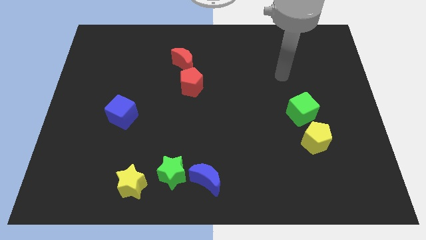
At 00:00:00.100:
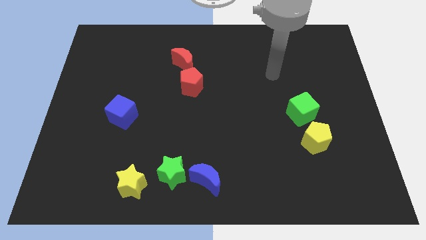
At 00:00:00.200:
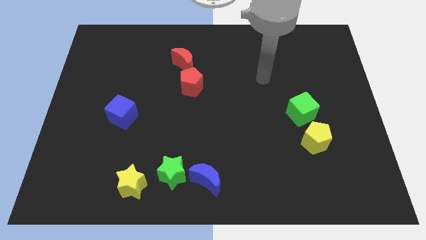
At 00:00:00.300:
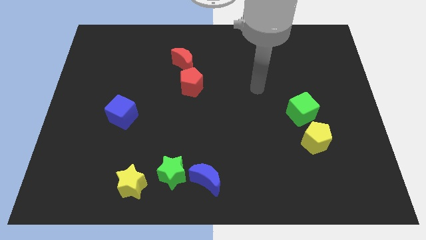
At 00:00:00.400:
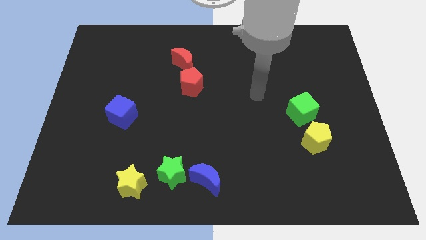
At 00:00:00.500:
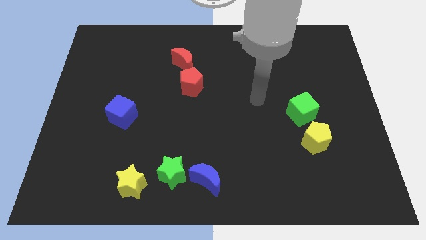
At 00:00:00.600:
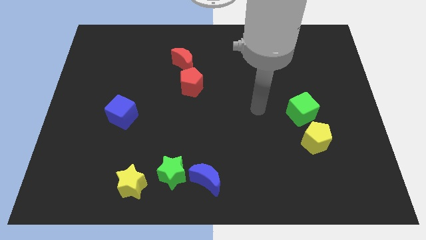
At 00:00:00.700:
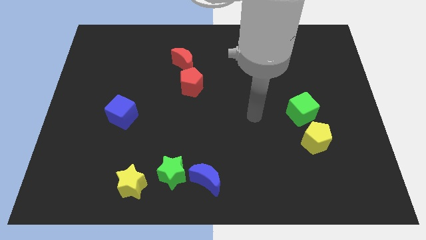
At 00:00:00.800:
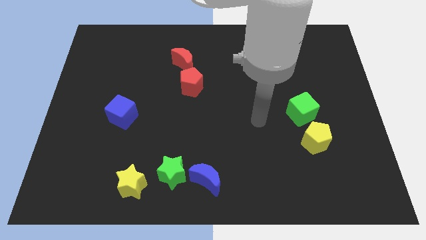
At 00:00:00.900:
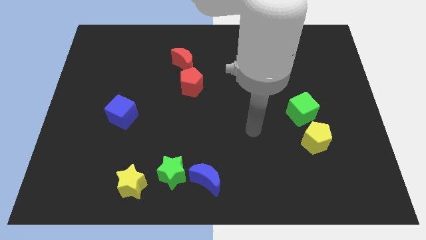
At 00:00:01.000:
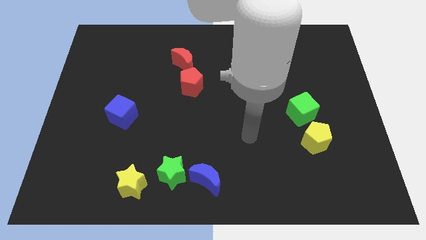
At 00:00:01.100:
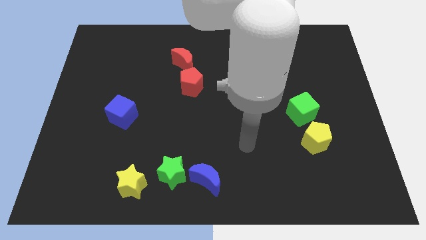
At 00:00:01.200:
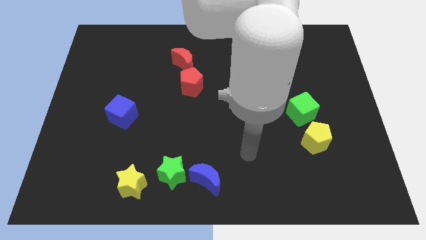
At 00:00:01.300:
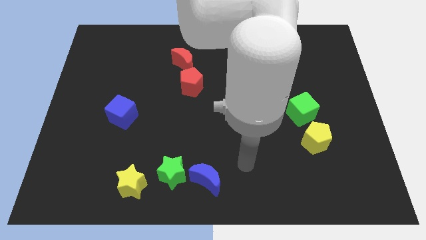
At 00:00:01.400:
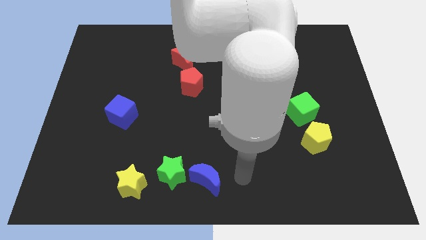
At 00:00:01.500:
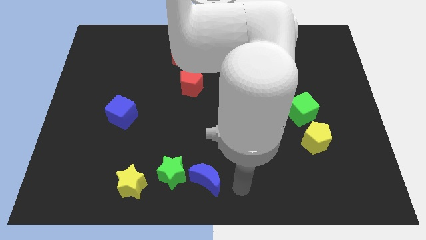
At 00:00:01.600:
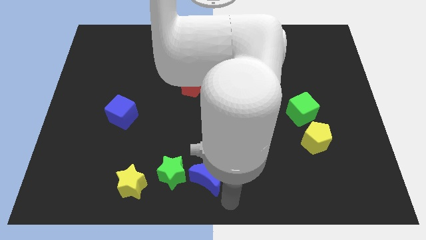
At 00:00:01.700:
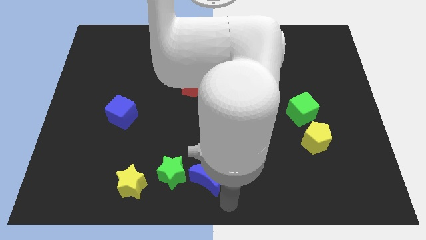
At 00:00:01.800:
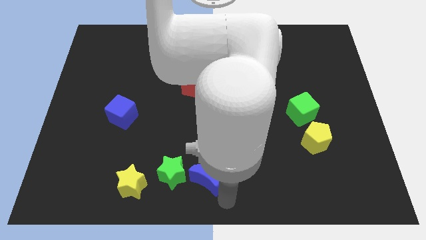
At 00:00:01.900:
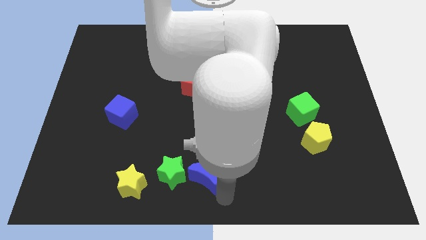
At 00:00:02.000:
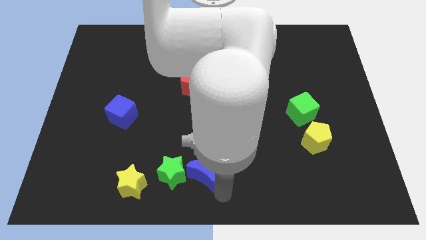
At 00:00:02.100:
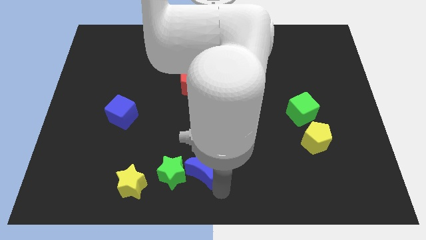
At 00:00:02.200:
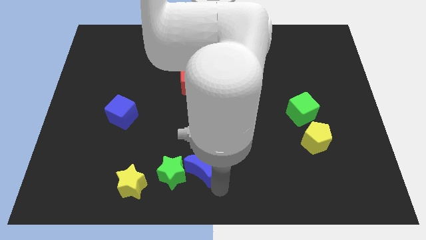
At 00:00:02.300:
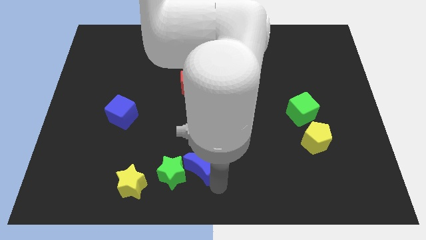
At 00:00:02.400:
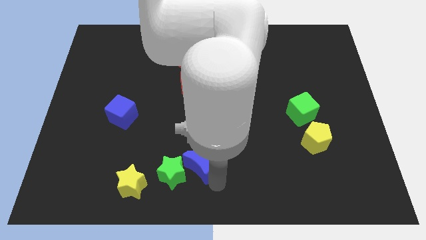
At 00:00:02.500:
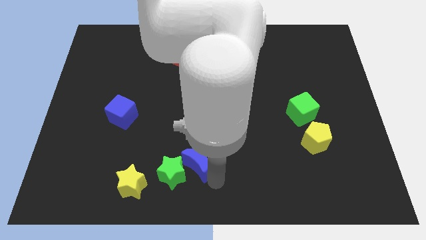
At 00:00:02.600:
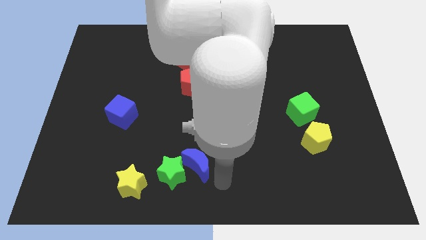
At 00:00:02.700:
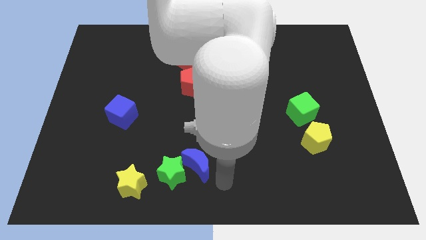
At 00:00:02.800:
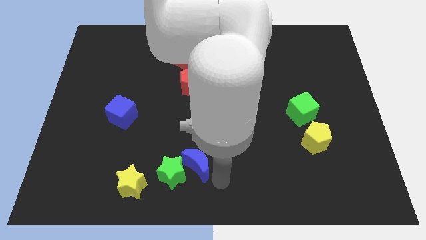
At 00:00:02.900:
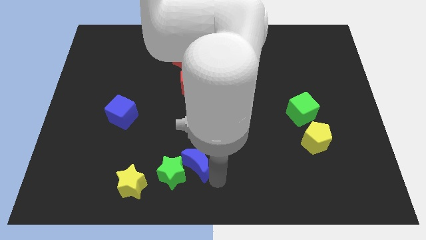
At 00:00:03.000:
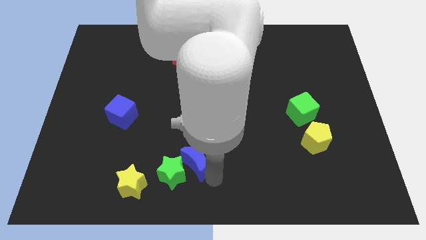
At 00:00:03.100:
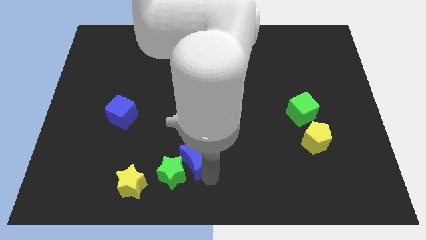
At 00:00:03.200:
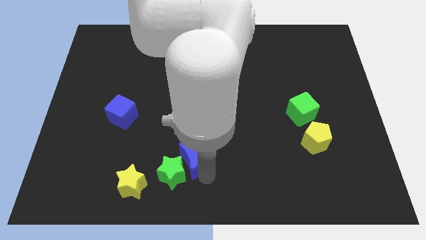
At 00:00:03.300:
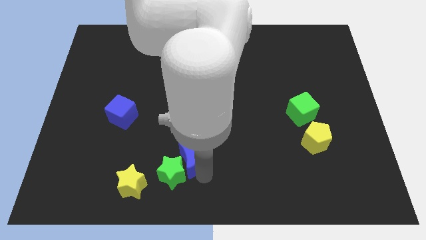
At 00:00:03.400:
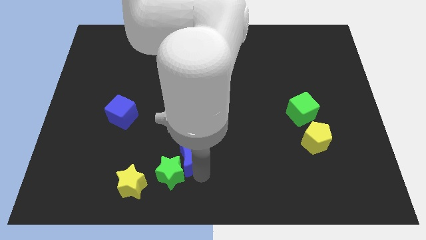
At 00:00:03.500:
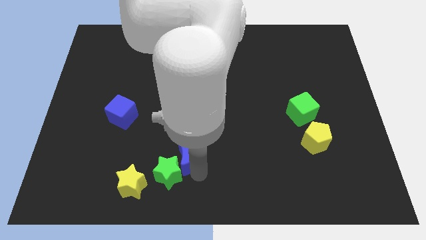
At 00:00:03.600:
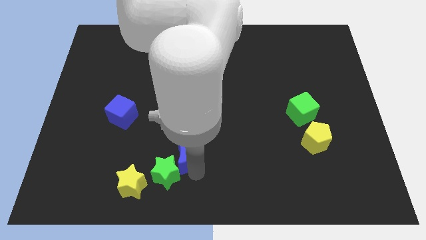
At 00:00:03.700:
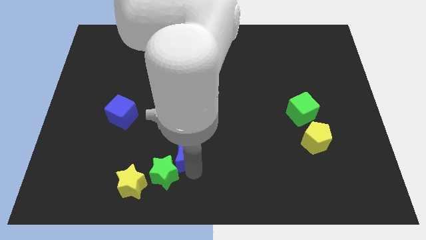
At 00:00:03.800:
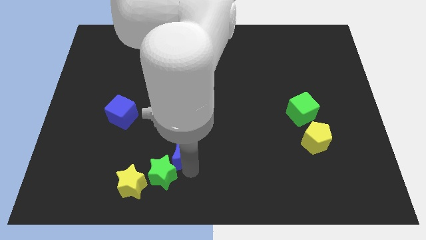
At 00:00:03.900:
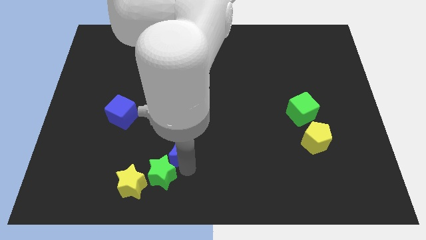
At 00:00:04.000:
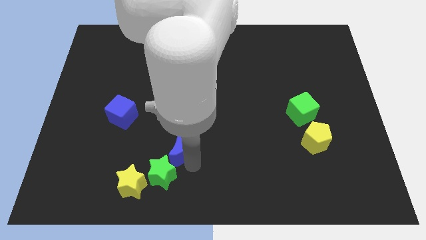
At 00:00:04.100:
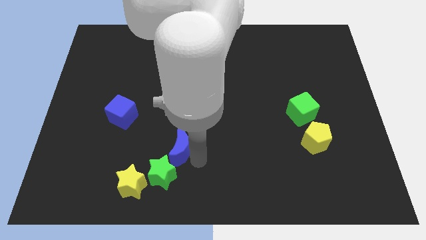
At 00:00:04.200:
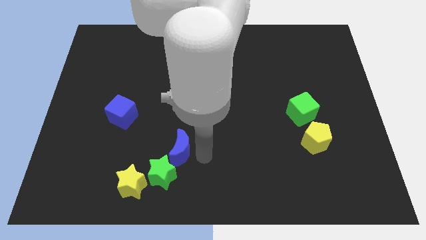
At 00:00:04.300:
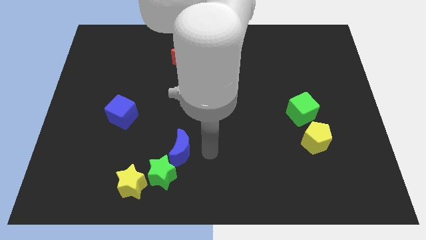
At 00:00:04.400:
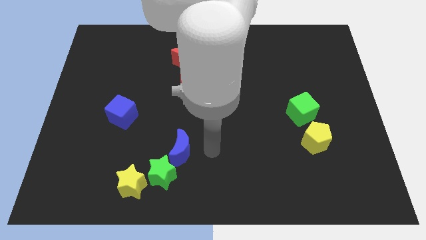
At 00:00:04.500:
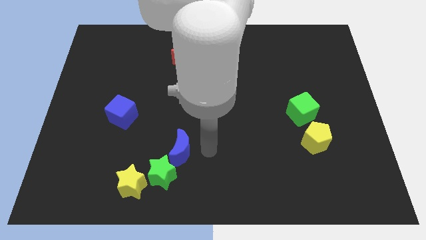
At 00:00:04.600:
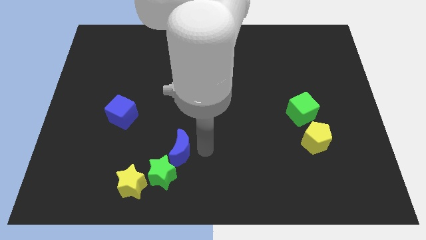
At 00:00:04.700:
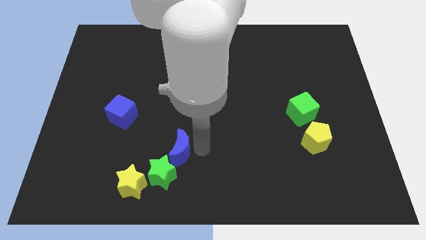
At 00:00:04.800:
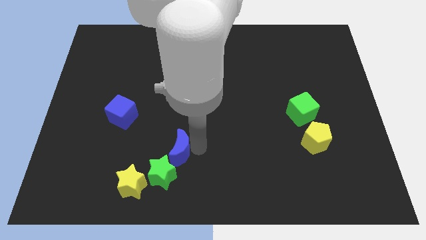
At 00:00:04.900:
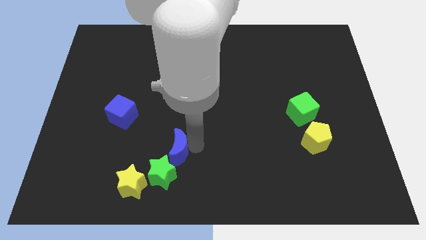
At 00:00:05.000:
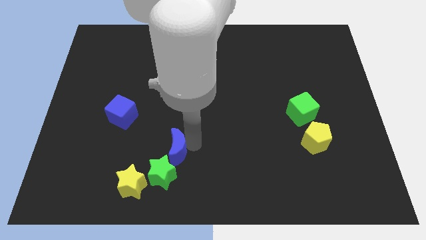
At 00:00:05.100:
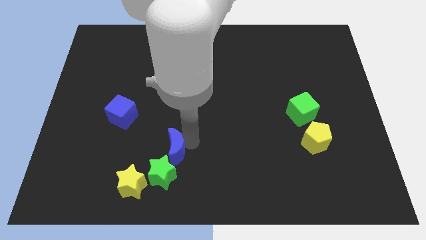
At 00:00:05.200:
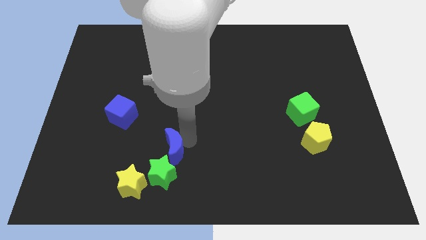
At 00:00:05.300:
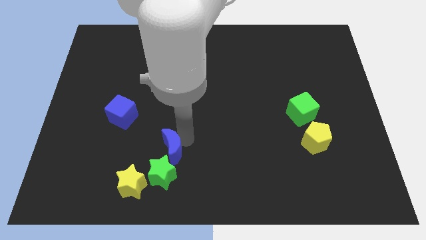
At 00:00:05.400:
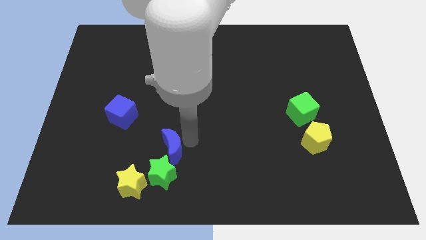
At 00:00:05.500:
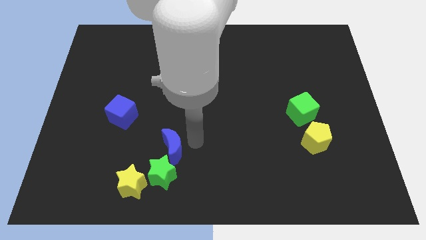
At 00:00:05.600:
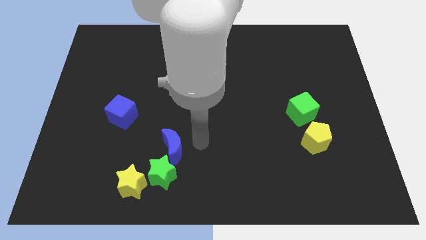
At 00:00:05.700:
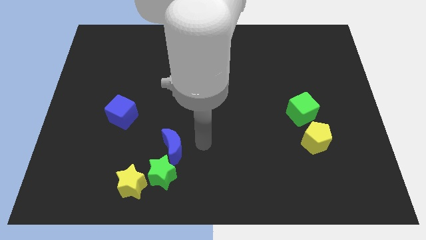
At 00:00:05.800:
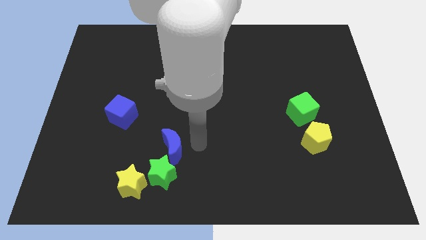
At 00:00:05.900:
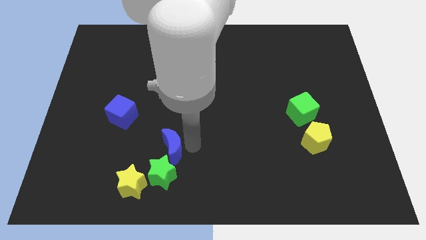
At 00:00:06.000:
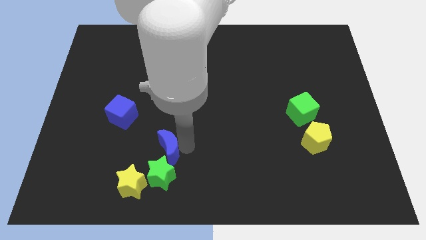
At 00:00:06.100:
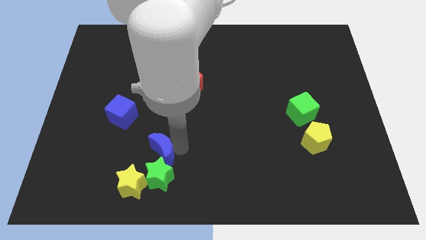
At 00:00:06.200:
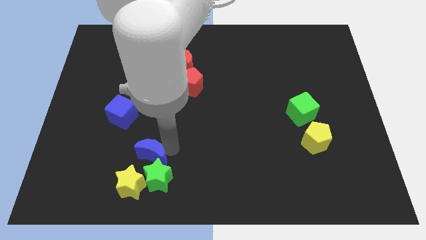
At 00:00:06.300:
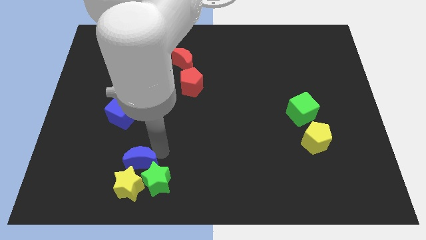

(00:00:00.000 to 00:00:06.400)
move the blue moon to the left side of the green star
